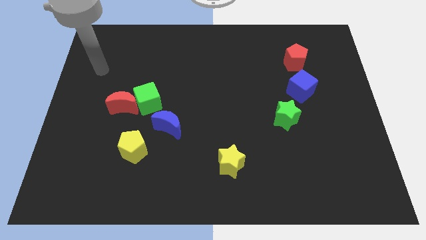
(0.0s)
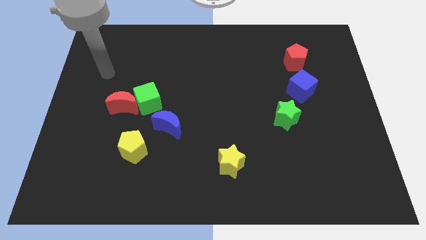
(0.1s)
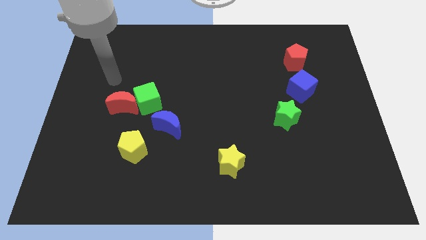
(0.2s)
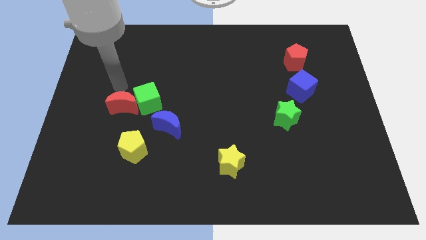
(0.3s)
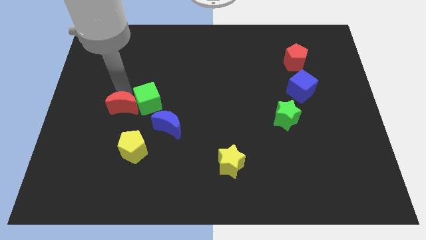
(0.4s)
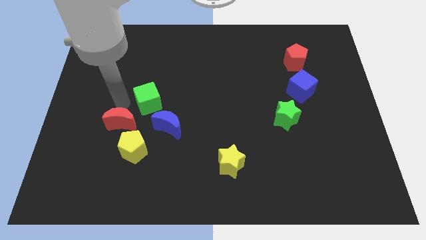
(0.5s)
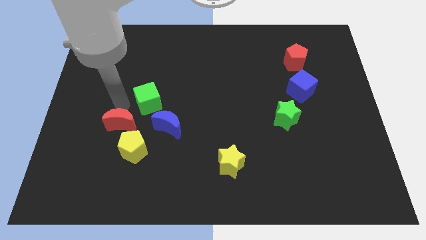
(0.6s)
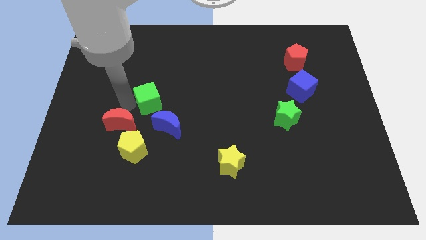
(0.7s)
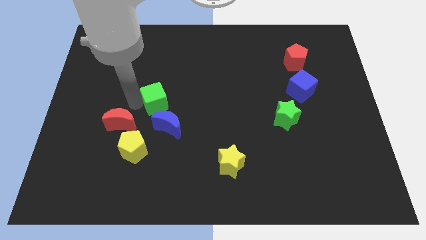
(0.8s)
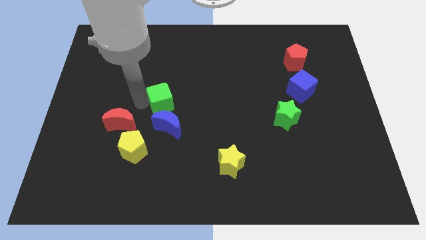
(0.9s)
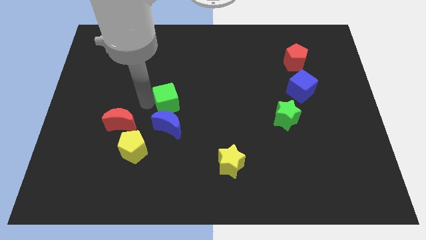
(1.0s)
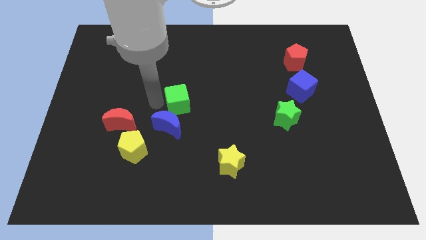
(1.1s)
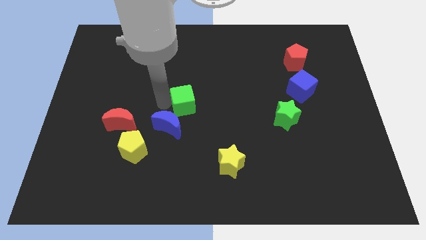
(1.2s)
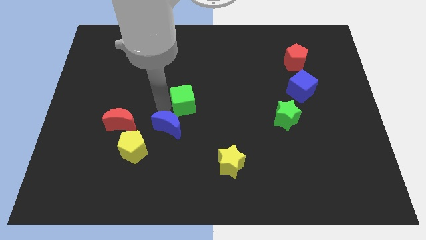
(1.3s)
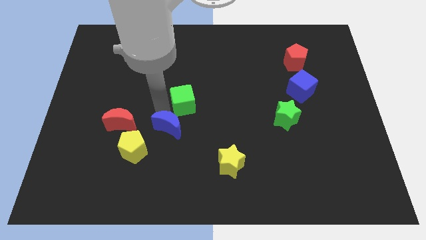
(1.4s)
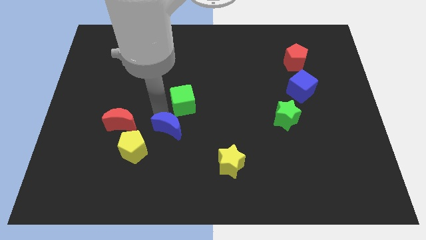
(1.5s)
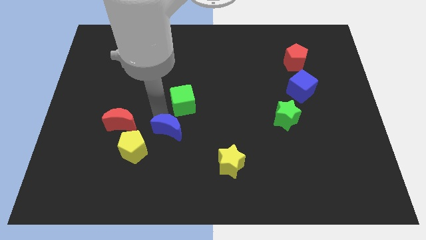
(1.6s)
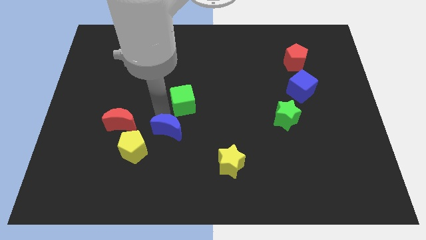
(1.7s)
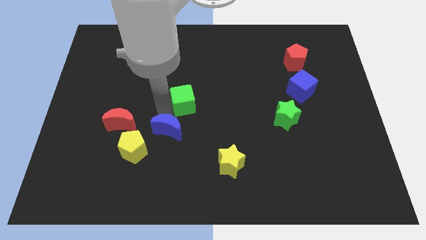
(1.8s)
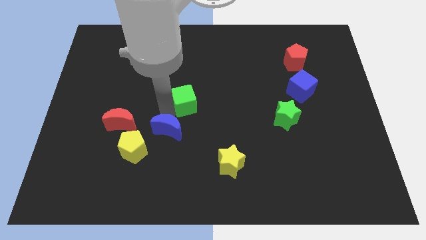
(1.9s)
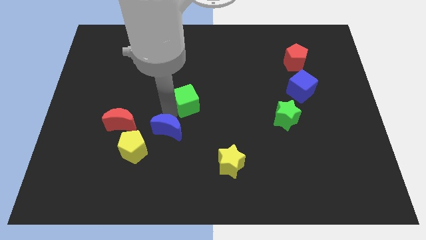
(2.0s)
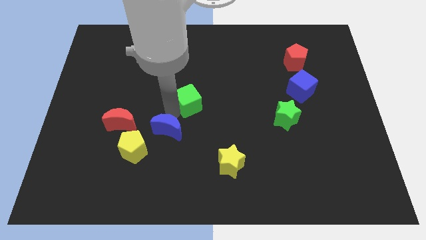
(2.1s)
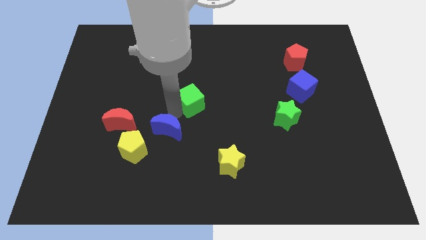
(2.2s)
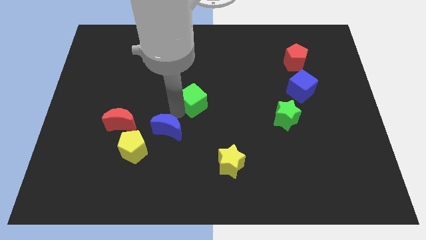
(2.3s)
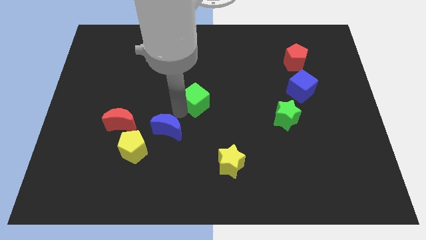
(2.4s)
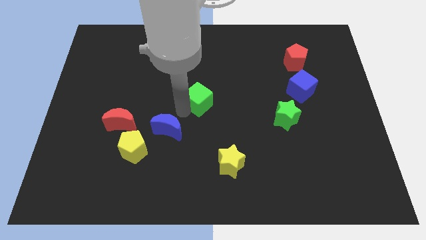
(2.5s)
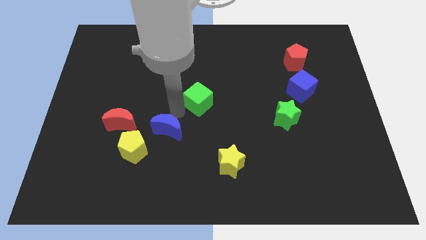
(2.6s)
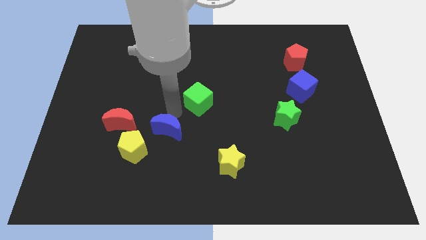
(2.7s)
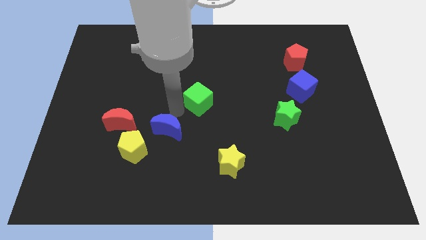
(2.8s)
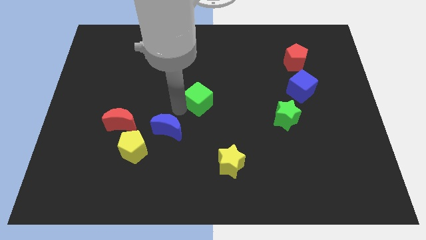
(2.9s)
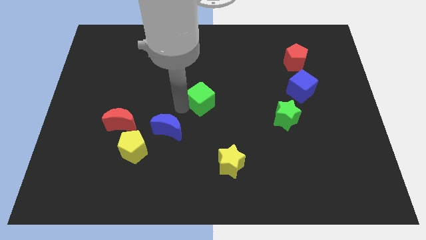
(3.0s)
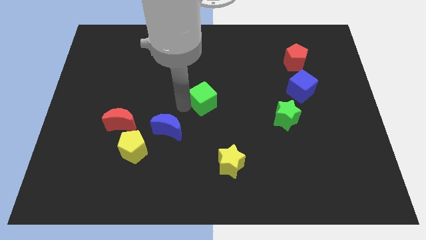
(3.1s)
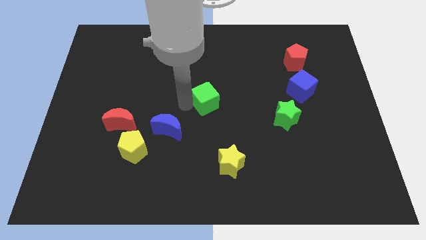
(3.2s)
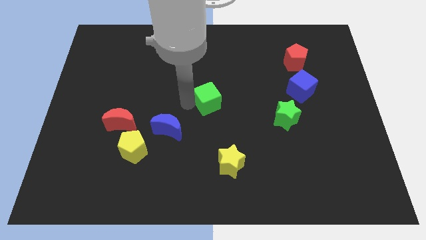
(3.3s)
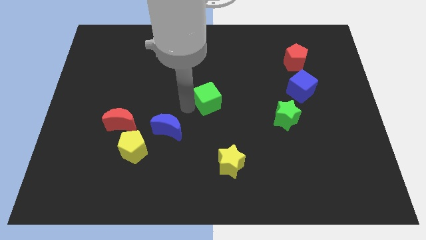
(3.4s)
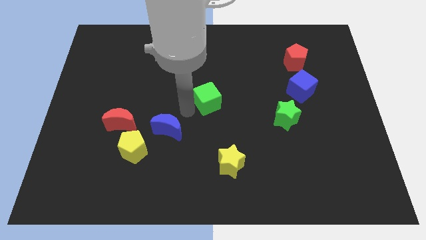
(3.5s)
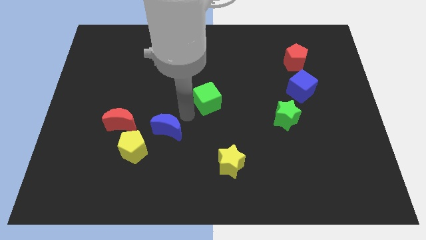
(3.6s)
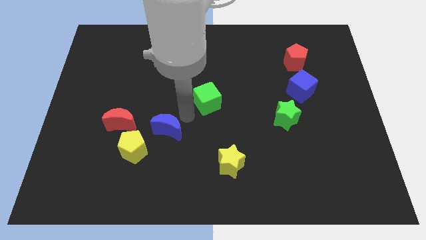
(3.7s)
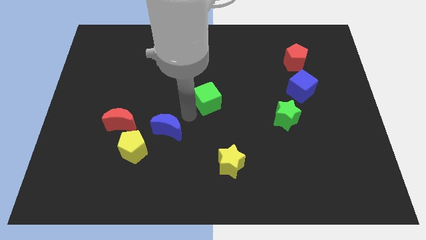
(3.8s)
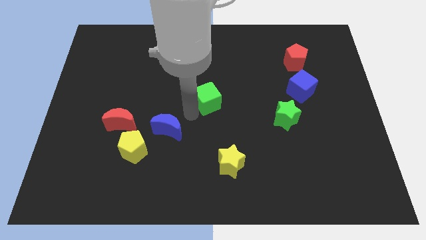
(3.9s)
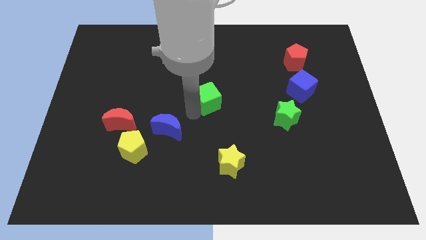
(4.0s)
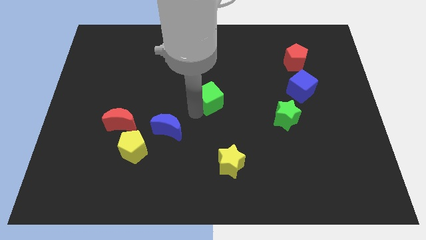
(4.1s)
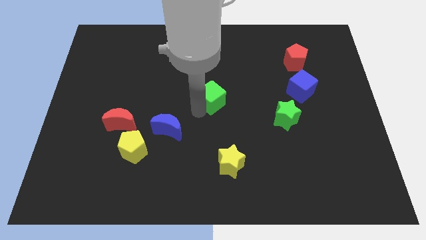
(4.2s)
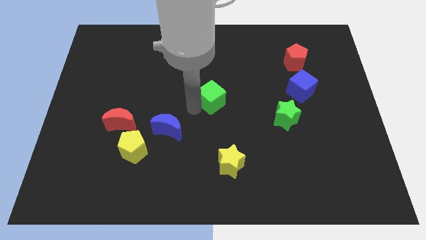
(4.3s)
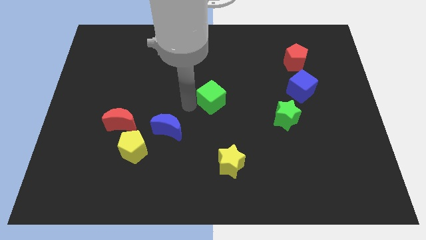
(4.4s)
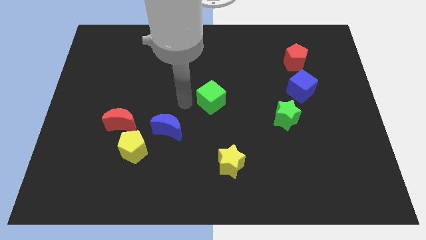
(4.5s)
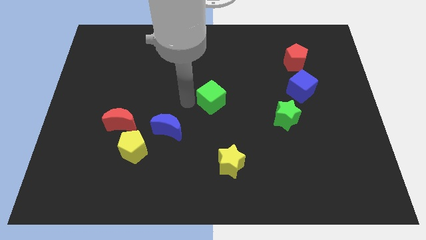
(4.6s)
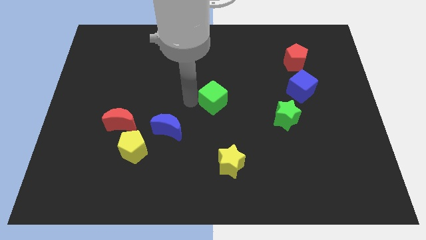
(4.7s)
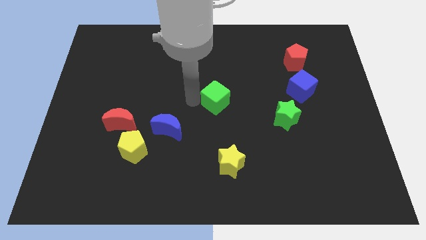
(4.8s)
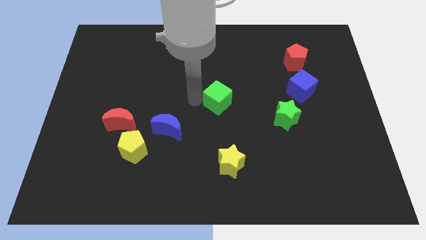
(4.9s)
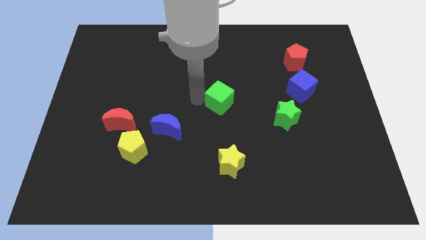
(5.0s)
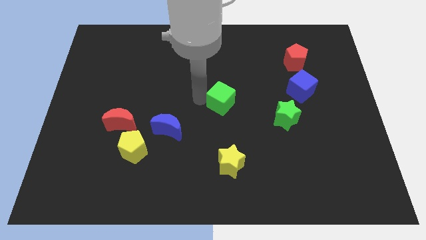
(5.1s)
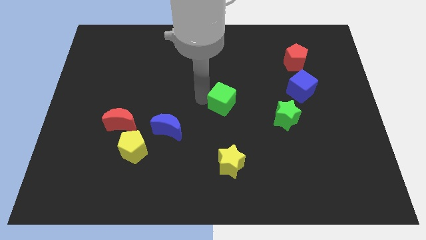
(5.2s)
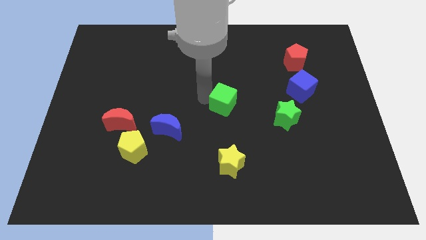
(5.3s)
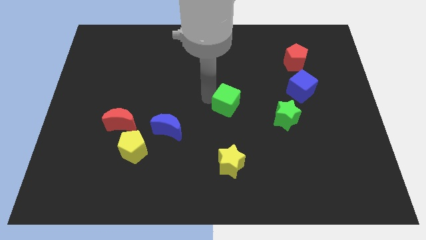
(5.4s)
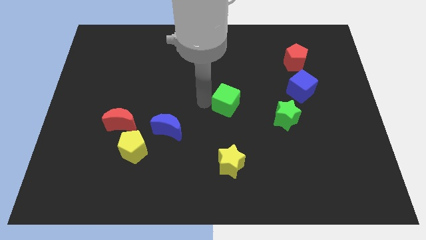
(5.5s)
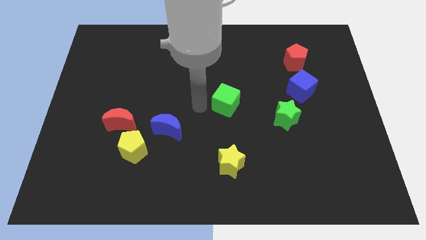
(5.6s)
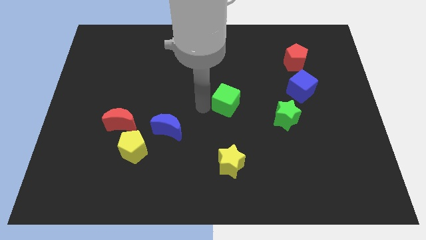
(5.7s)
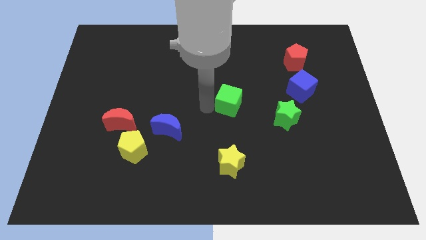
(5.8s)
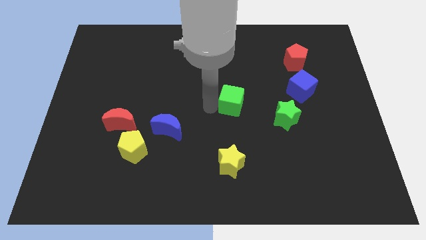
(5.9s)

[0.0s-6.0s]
slide the green cube right

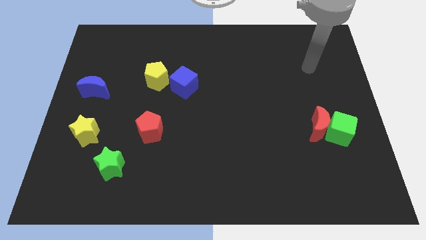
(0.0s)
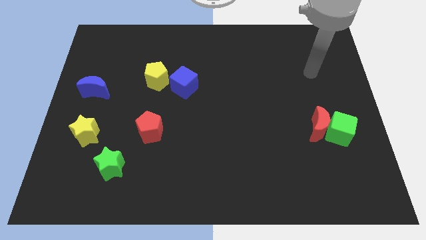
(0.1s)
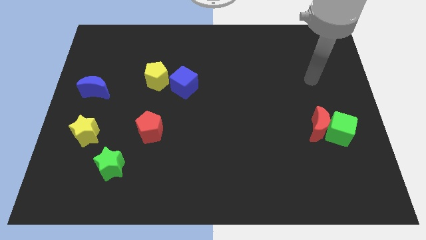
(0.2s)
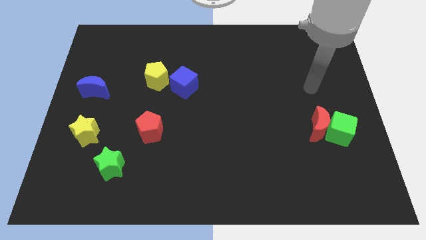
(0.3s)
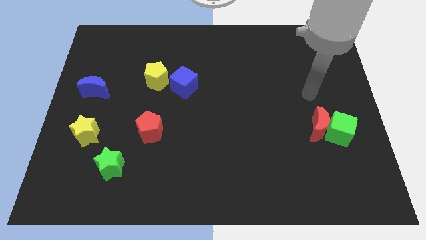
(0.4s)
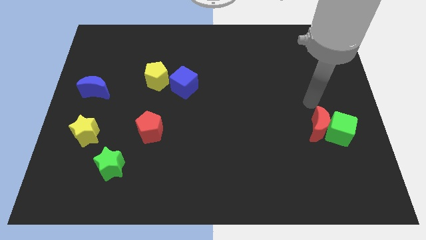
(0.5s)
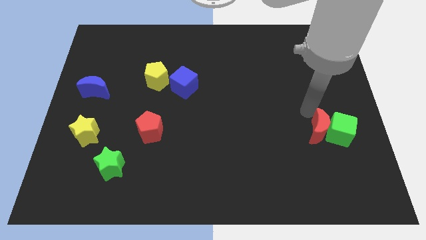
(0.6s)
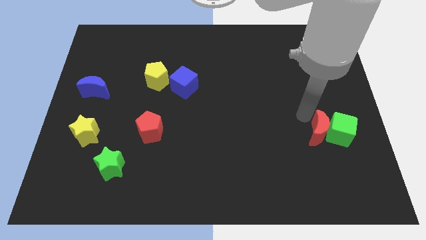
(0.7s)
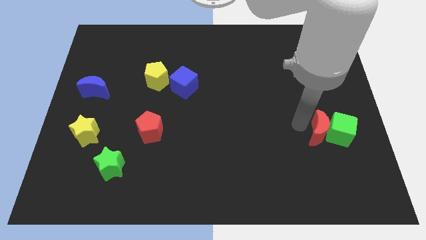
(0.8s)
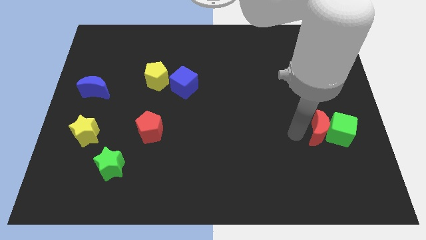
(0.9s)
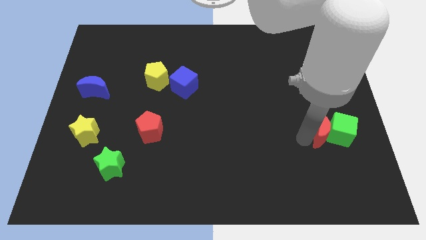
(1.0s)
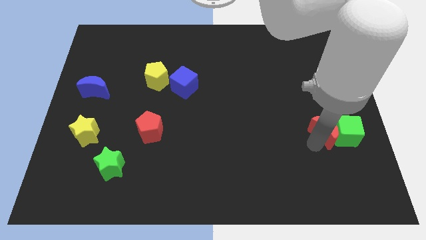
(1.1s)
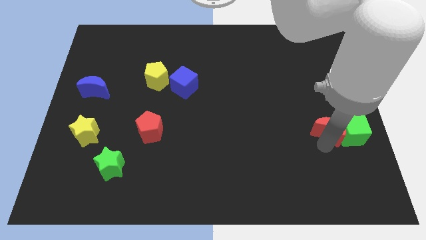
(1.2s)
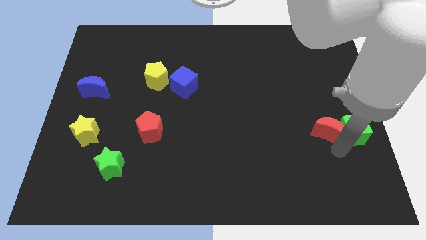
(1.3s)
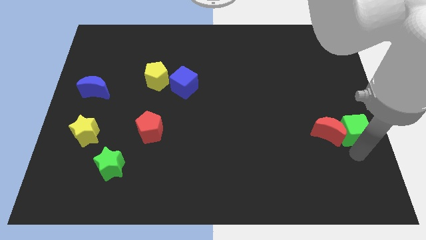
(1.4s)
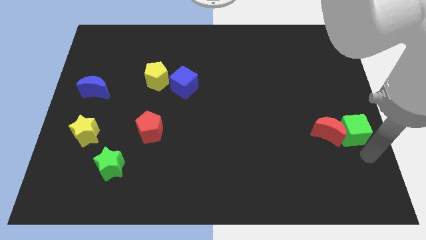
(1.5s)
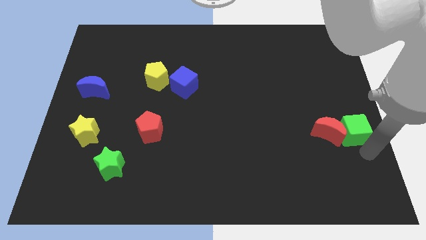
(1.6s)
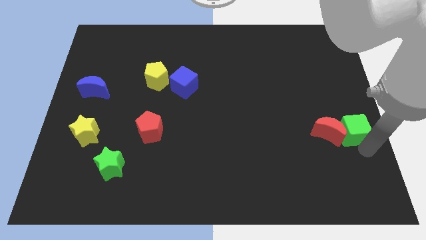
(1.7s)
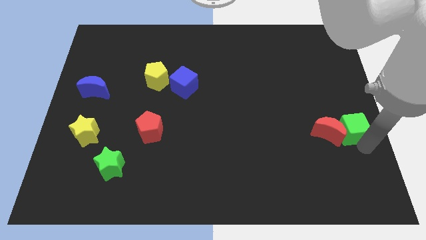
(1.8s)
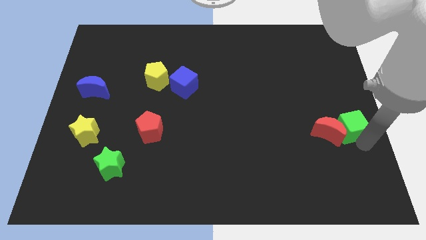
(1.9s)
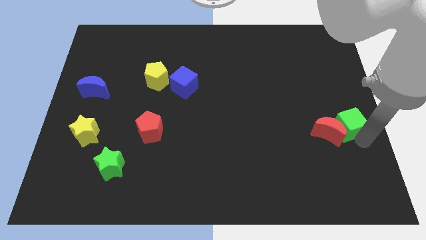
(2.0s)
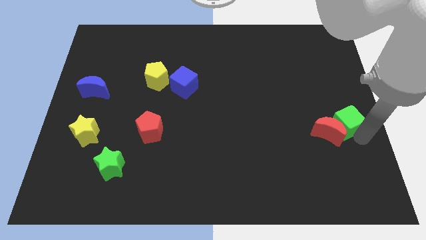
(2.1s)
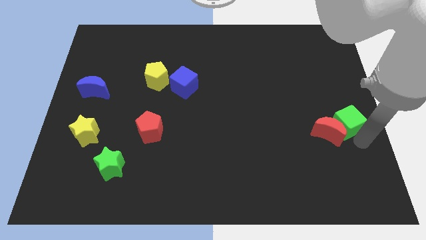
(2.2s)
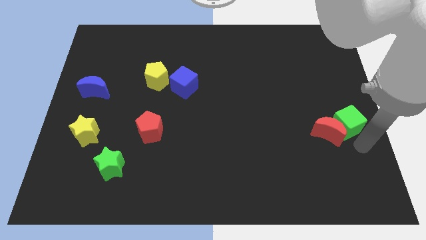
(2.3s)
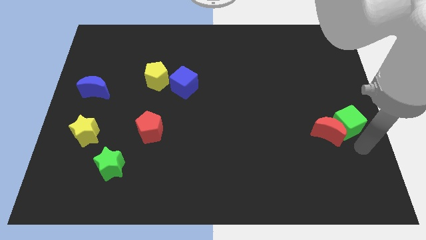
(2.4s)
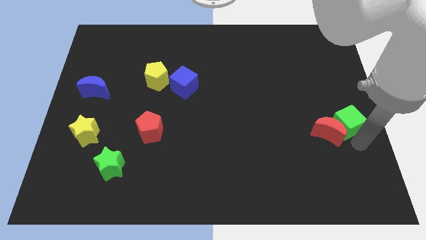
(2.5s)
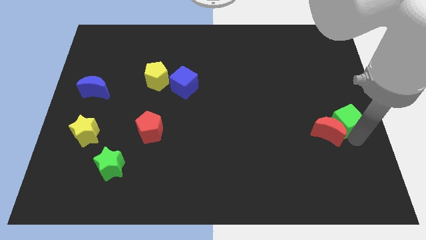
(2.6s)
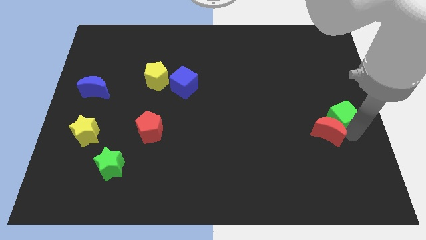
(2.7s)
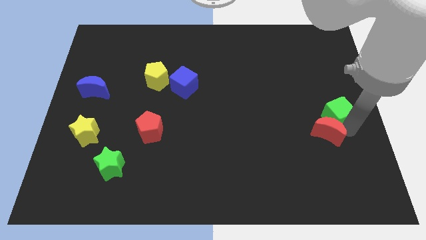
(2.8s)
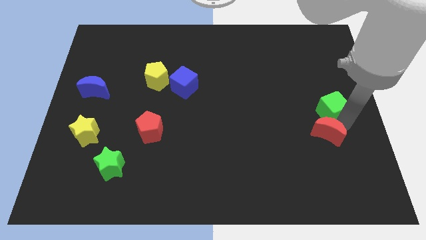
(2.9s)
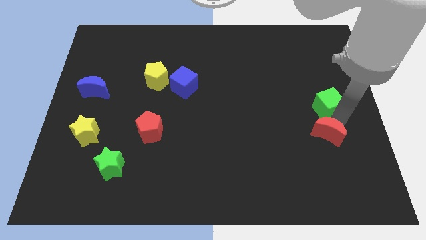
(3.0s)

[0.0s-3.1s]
move the green cube up slightly
